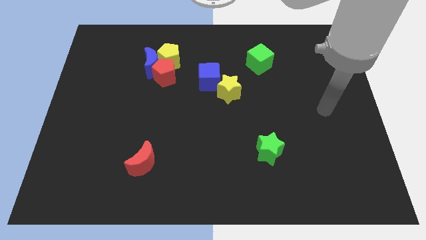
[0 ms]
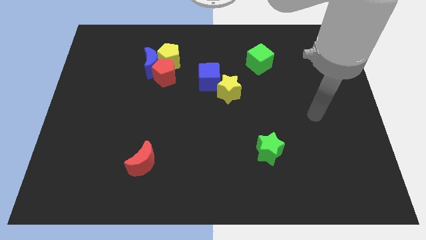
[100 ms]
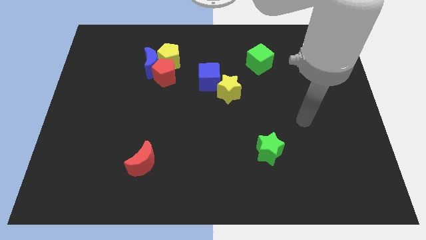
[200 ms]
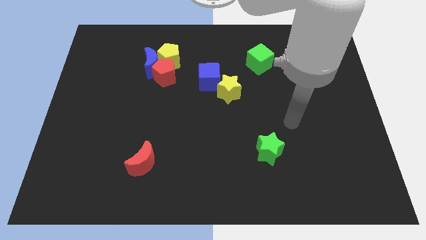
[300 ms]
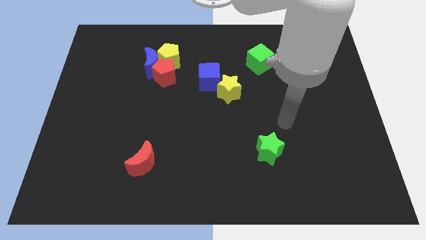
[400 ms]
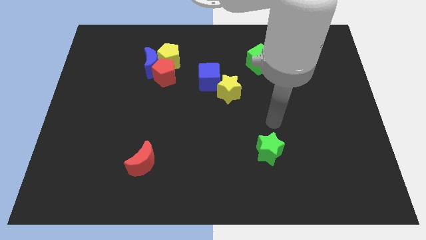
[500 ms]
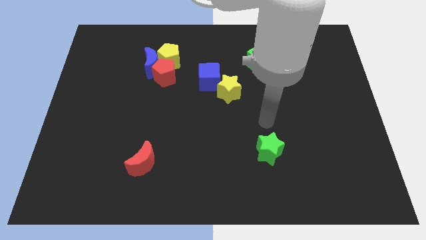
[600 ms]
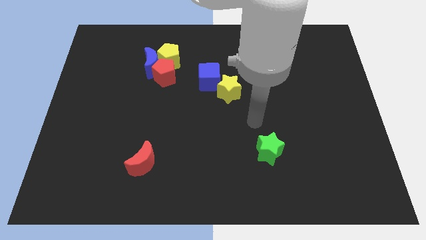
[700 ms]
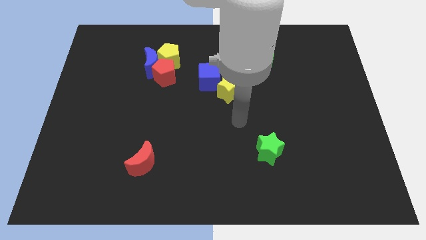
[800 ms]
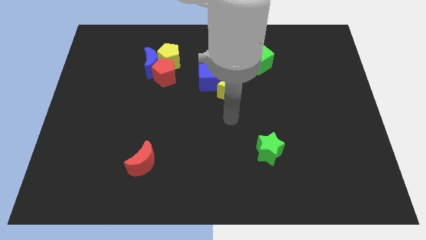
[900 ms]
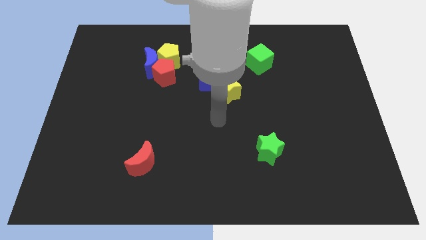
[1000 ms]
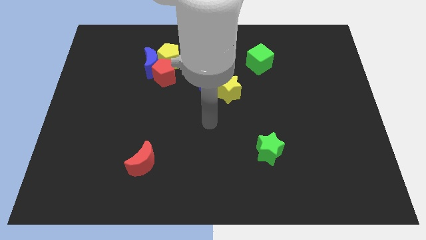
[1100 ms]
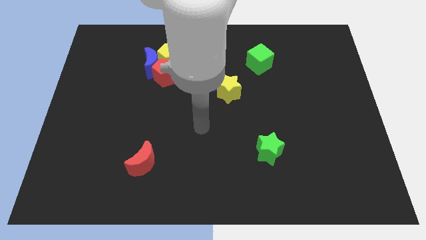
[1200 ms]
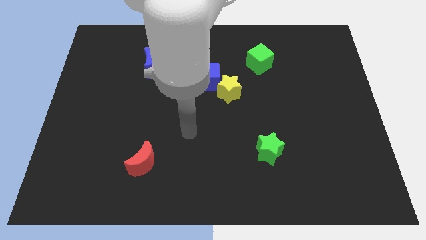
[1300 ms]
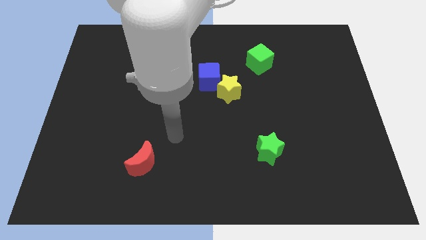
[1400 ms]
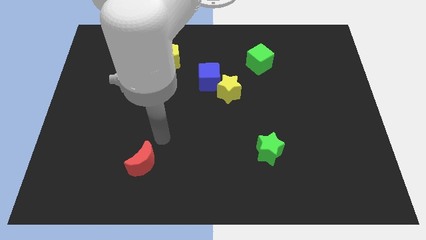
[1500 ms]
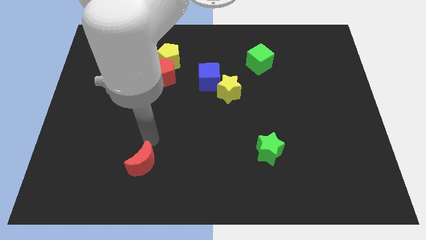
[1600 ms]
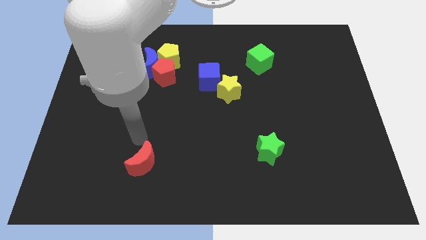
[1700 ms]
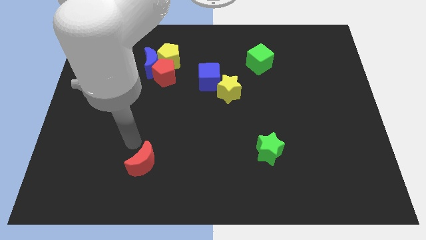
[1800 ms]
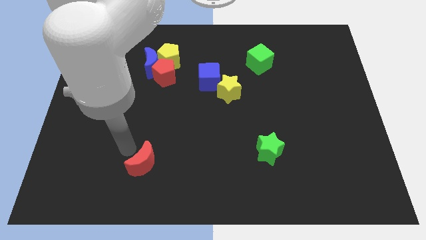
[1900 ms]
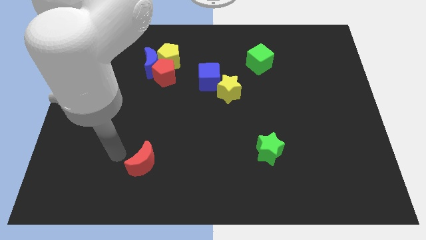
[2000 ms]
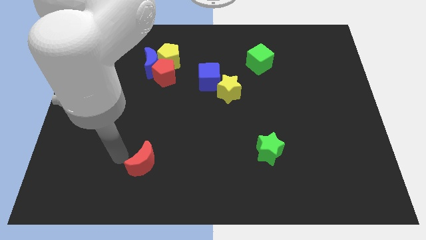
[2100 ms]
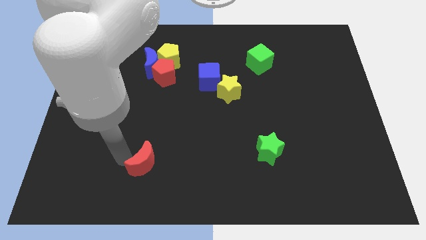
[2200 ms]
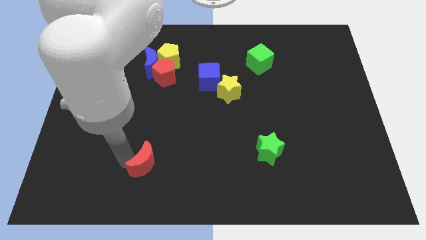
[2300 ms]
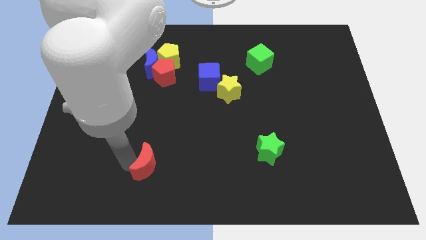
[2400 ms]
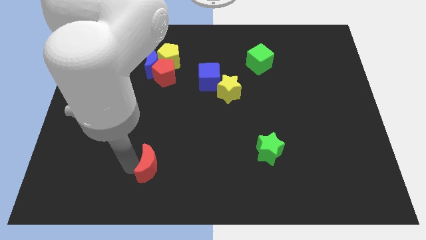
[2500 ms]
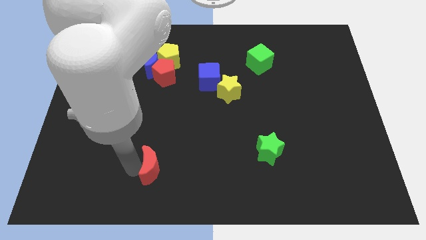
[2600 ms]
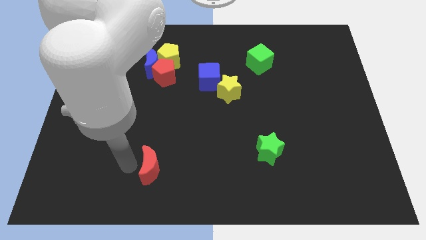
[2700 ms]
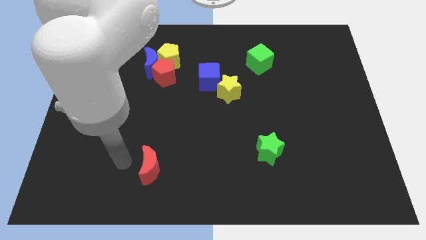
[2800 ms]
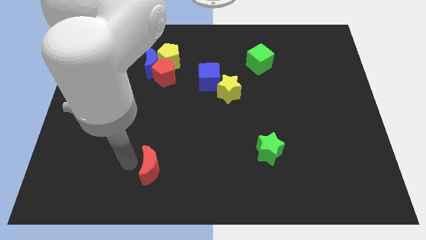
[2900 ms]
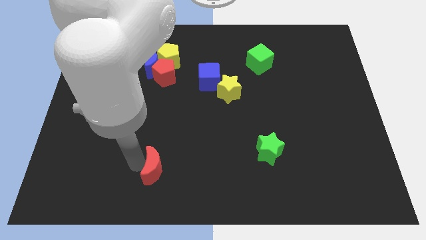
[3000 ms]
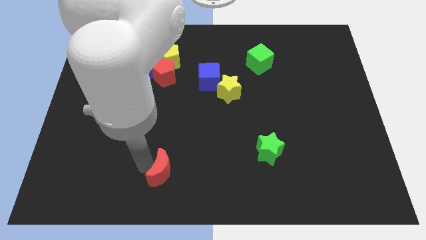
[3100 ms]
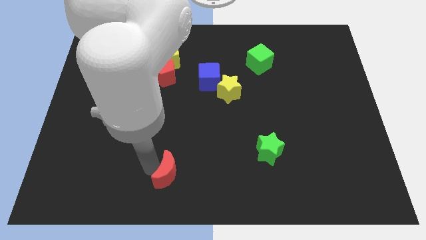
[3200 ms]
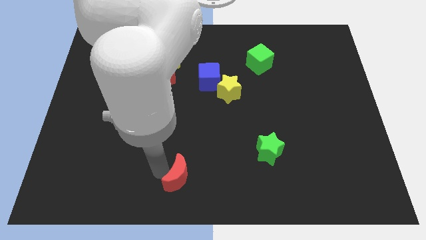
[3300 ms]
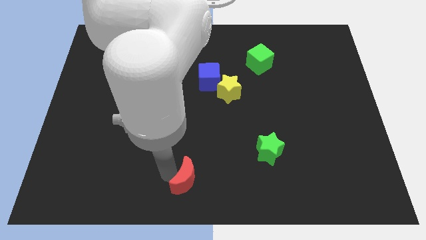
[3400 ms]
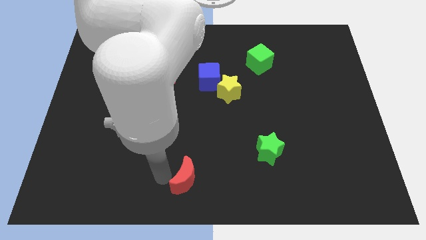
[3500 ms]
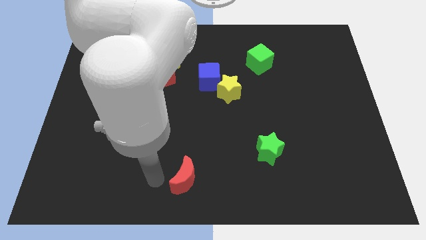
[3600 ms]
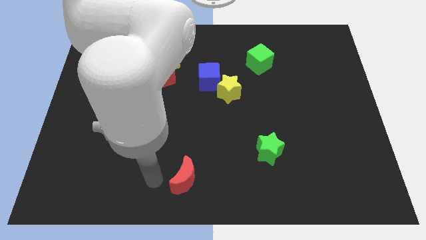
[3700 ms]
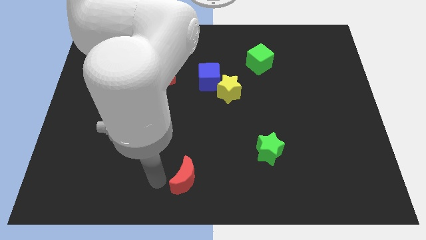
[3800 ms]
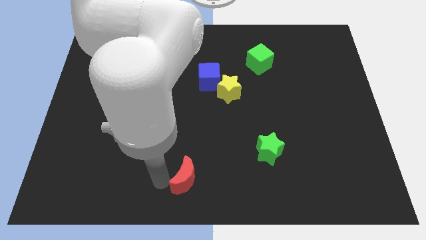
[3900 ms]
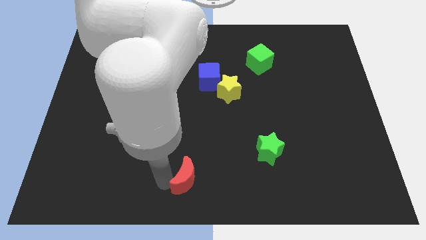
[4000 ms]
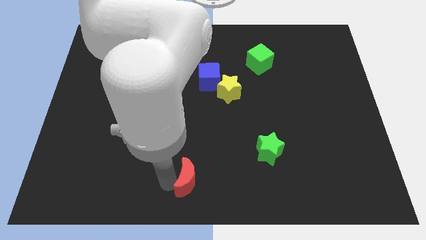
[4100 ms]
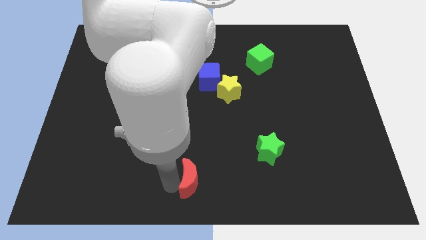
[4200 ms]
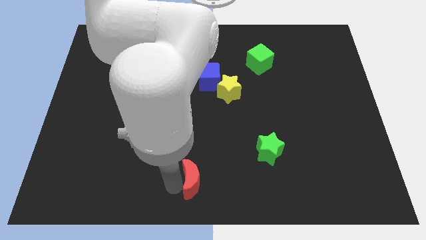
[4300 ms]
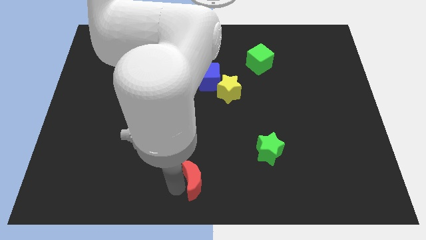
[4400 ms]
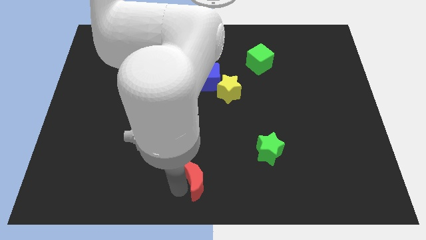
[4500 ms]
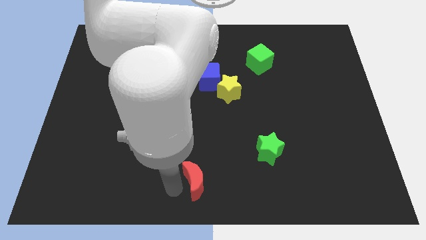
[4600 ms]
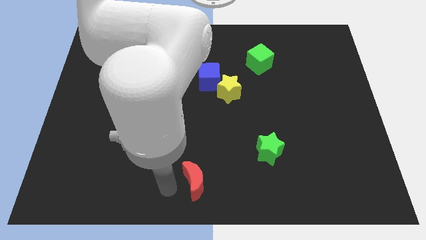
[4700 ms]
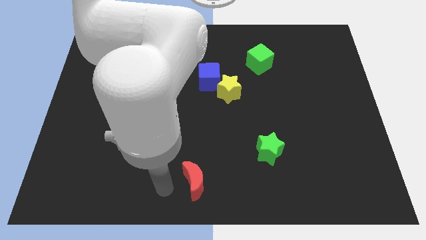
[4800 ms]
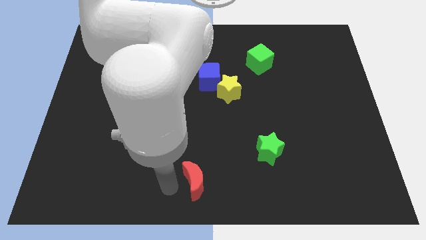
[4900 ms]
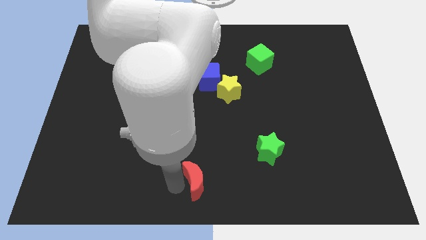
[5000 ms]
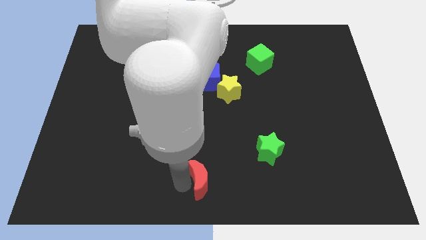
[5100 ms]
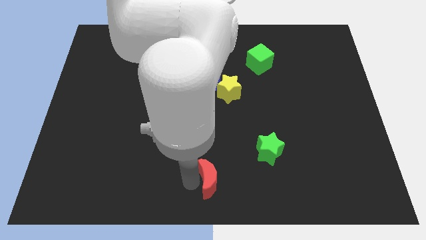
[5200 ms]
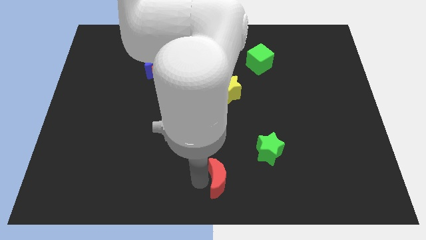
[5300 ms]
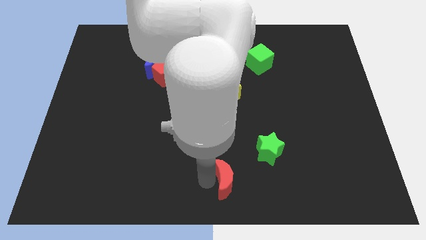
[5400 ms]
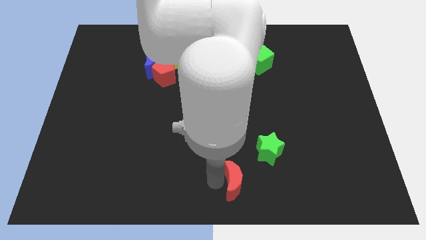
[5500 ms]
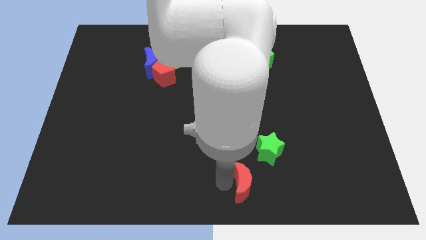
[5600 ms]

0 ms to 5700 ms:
move the red moon to the right

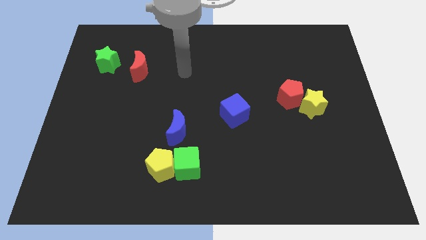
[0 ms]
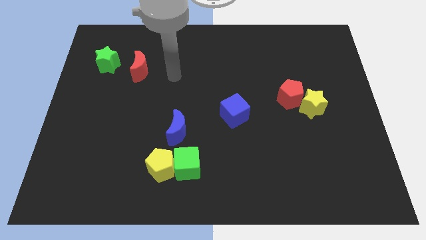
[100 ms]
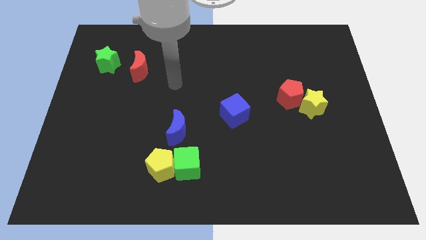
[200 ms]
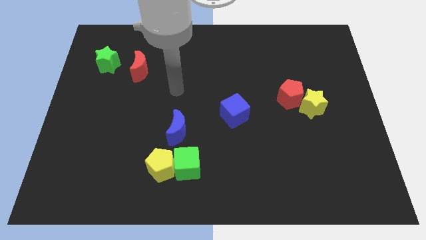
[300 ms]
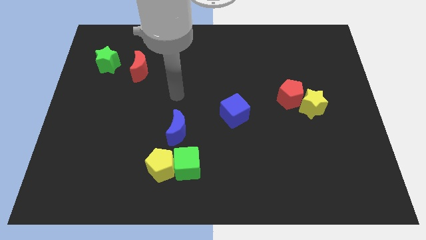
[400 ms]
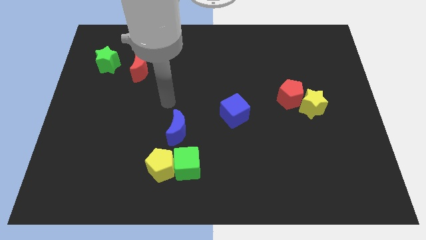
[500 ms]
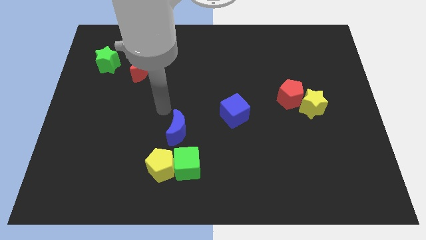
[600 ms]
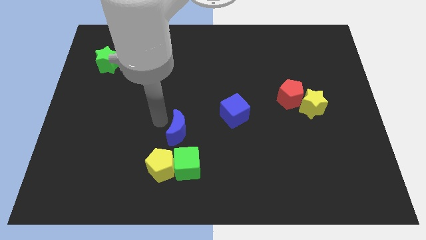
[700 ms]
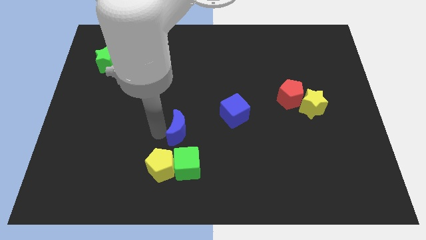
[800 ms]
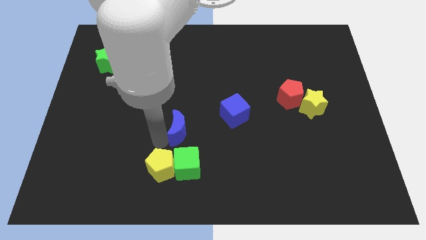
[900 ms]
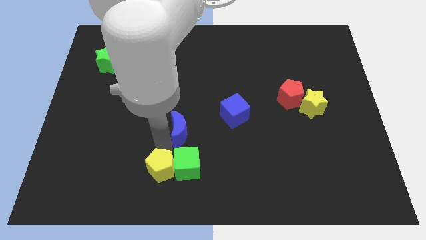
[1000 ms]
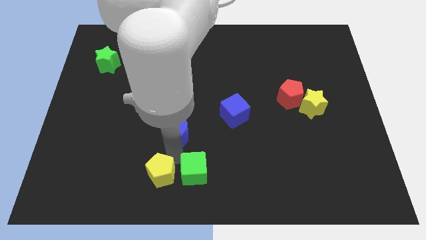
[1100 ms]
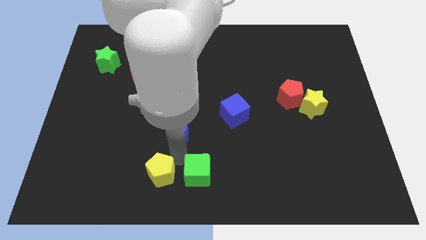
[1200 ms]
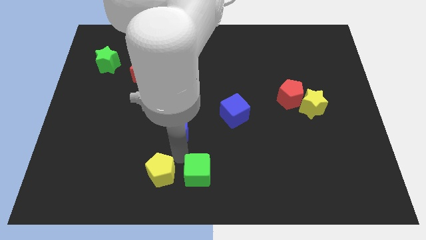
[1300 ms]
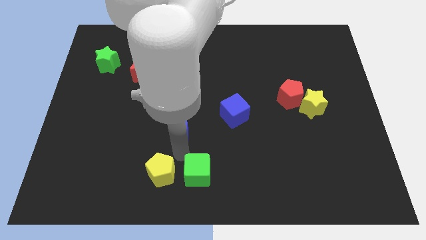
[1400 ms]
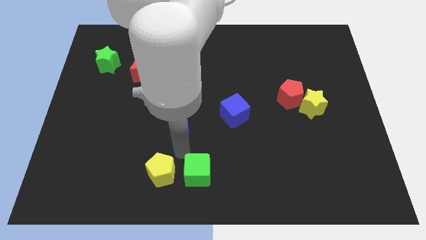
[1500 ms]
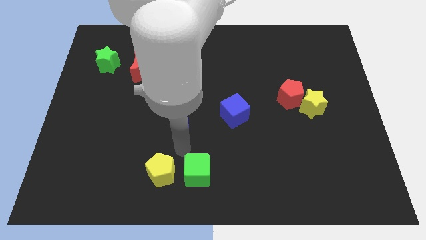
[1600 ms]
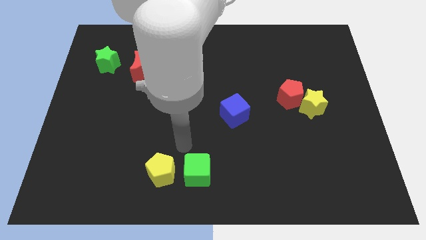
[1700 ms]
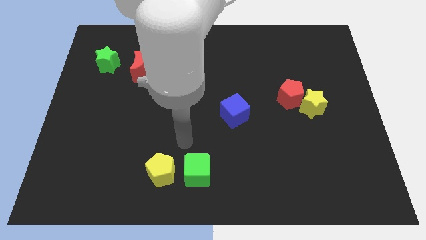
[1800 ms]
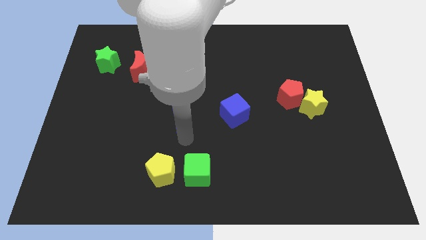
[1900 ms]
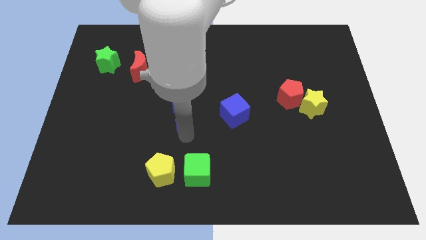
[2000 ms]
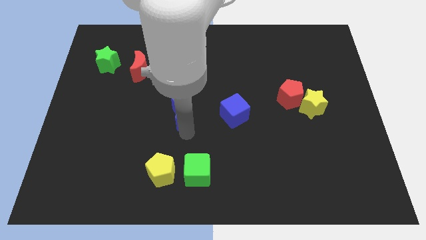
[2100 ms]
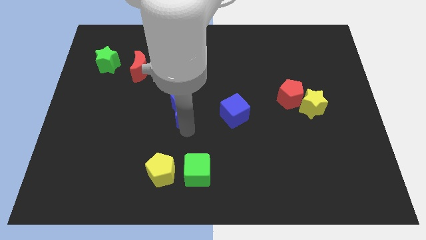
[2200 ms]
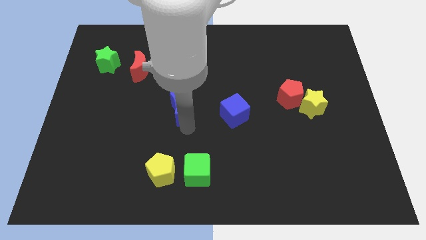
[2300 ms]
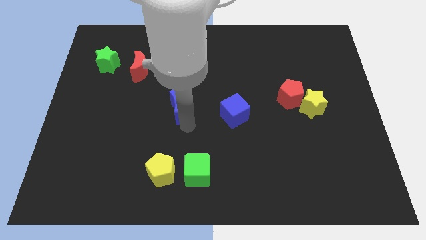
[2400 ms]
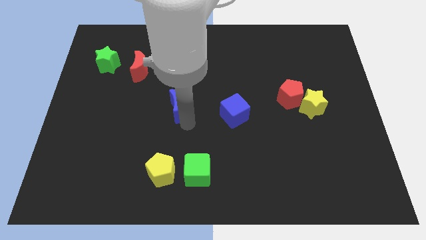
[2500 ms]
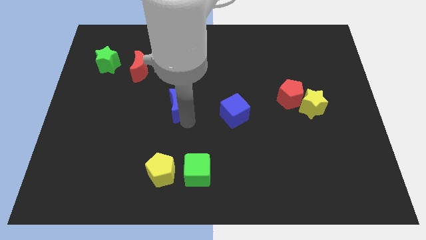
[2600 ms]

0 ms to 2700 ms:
slide the blue moon a little bit upwards
